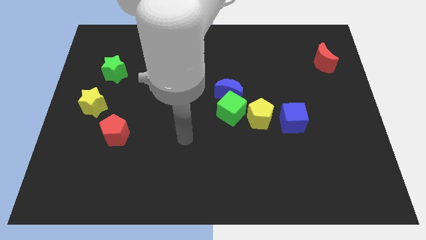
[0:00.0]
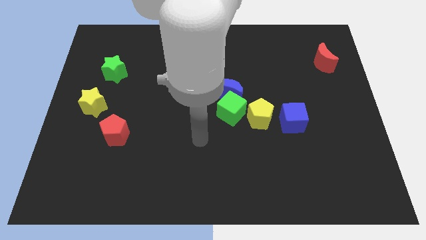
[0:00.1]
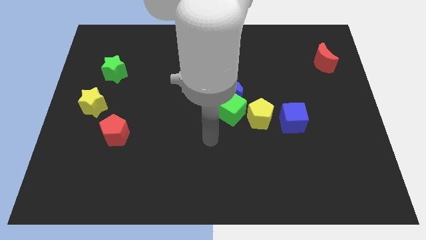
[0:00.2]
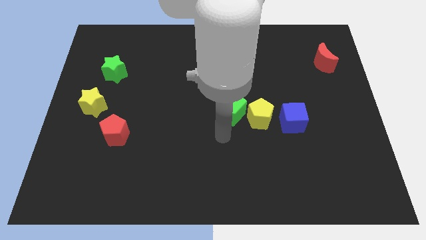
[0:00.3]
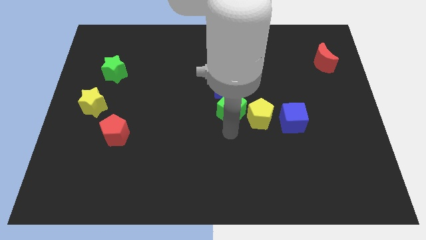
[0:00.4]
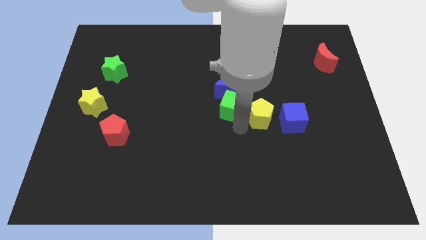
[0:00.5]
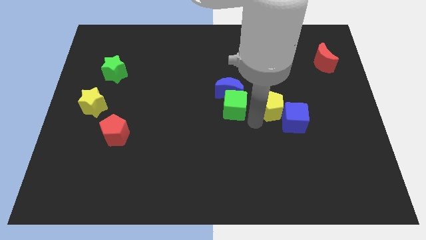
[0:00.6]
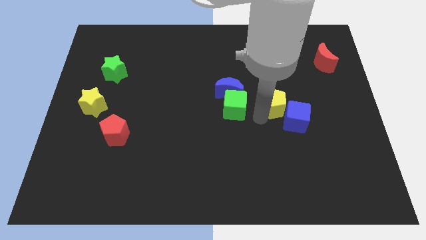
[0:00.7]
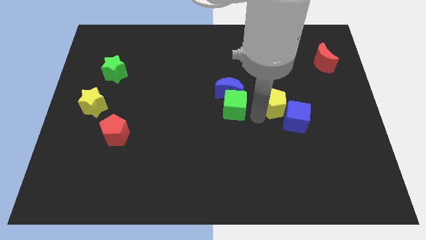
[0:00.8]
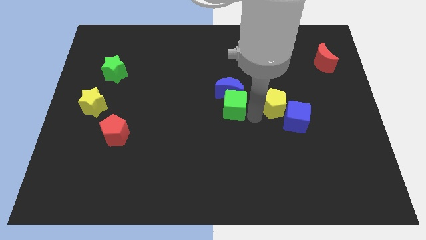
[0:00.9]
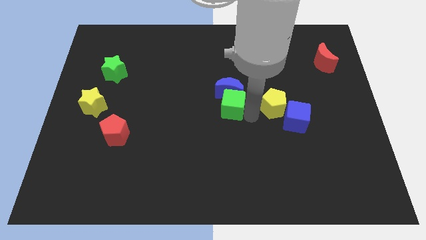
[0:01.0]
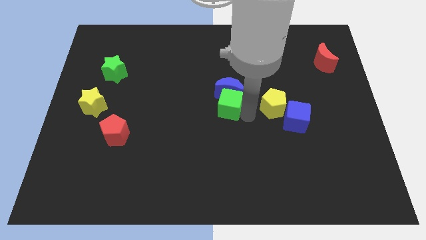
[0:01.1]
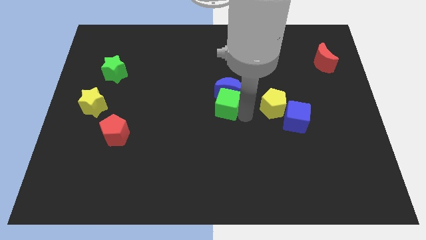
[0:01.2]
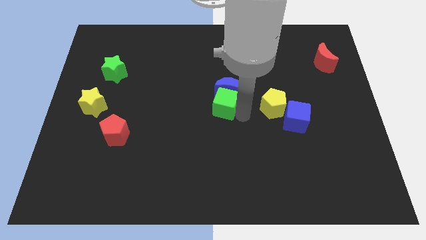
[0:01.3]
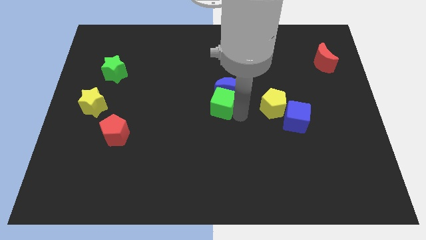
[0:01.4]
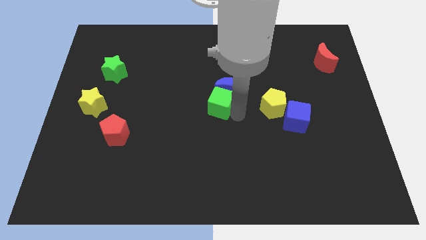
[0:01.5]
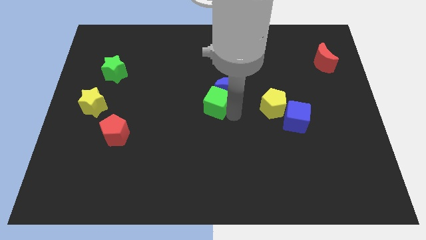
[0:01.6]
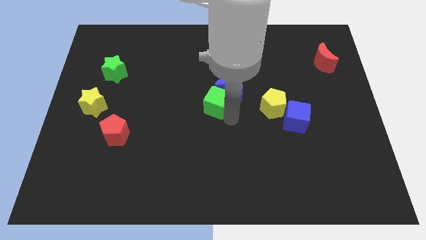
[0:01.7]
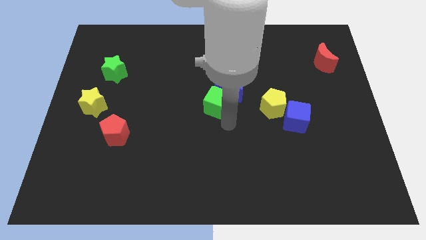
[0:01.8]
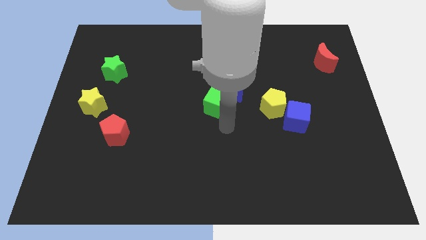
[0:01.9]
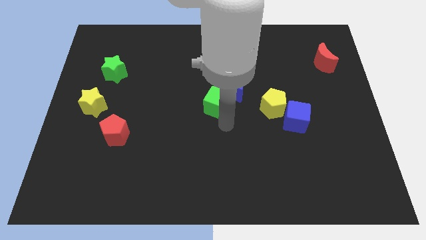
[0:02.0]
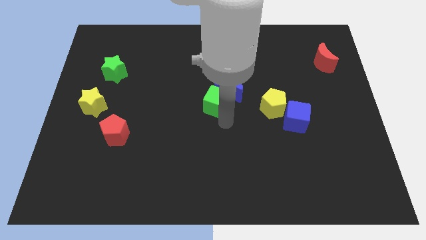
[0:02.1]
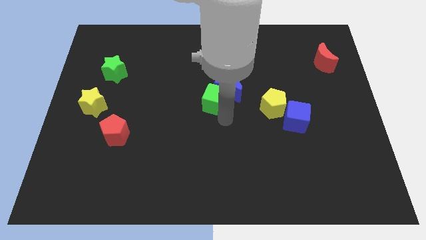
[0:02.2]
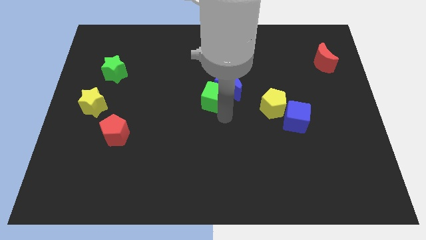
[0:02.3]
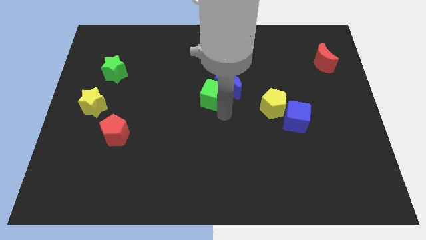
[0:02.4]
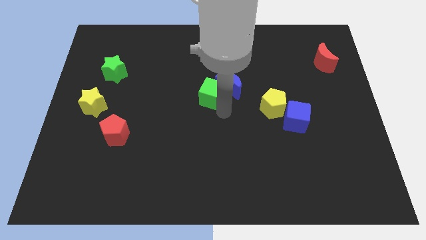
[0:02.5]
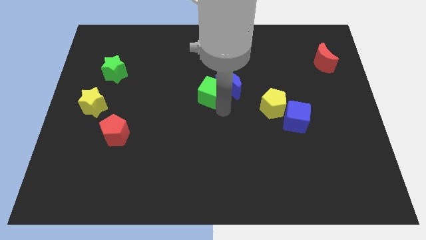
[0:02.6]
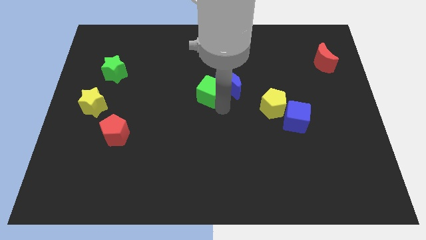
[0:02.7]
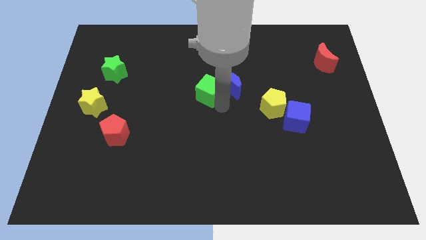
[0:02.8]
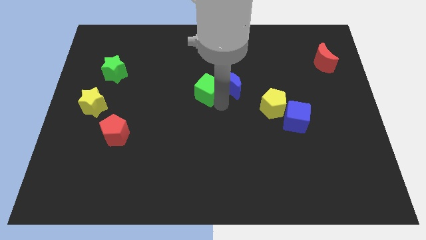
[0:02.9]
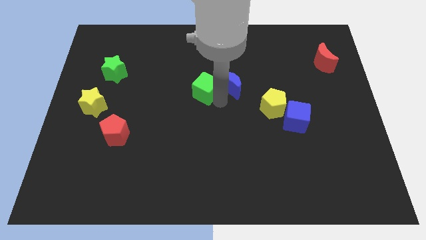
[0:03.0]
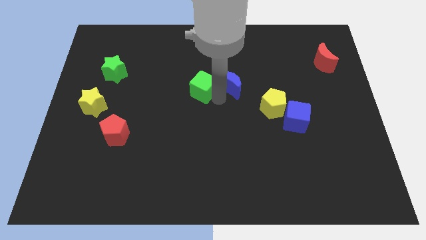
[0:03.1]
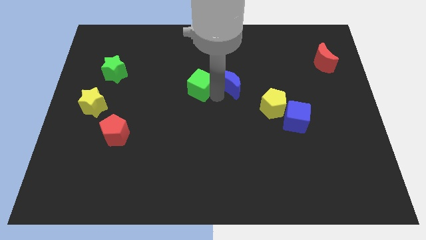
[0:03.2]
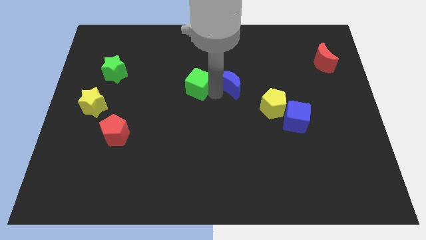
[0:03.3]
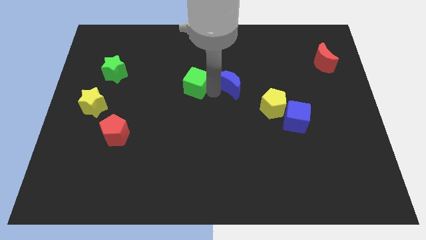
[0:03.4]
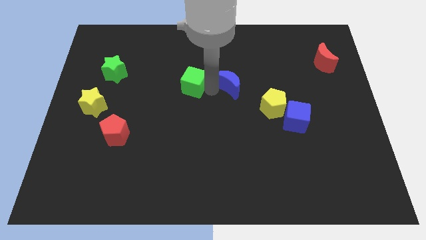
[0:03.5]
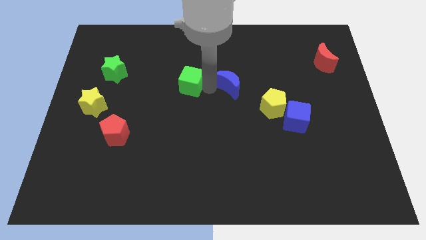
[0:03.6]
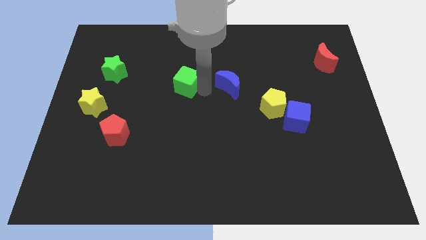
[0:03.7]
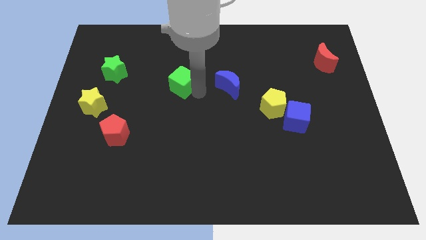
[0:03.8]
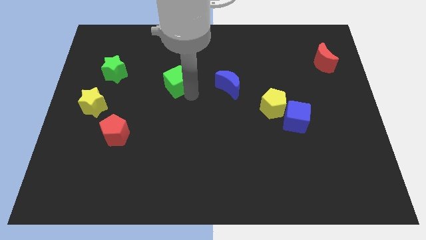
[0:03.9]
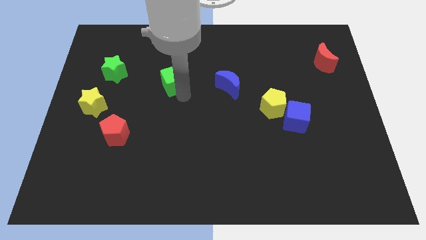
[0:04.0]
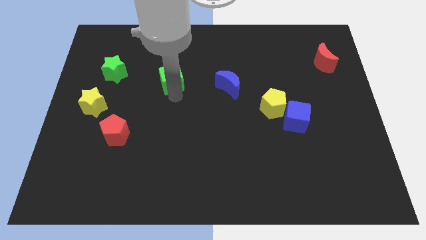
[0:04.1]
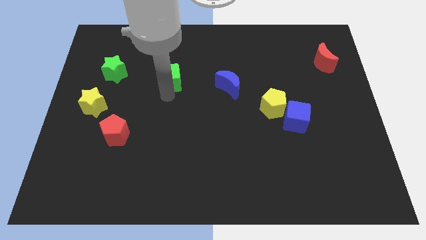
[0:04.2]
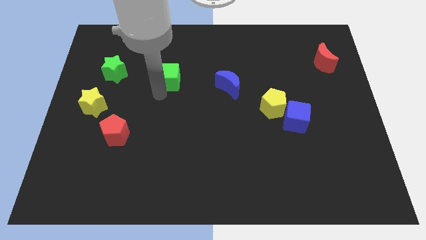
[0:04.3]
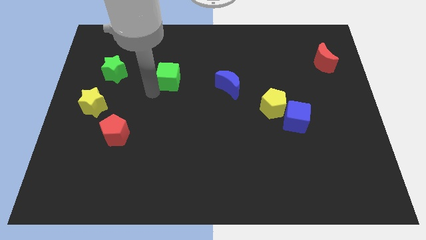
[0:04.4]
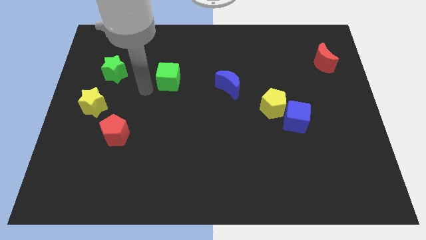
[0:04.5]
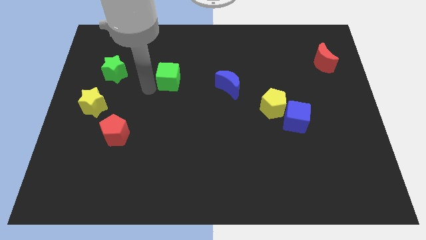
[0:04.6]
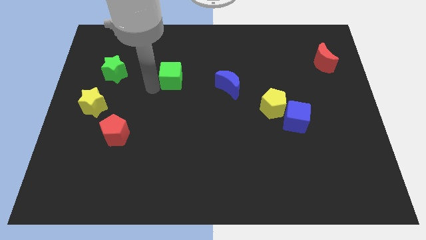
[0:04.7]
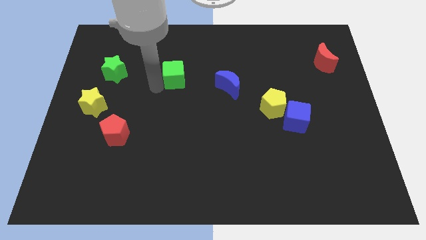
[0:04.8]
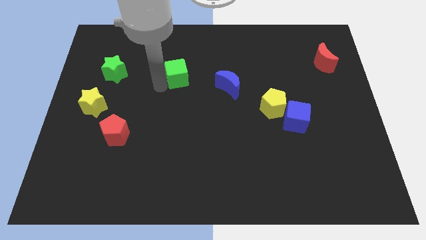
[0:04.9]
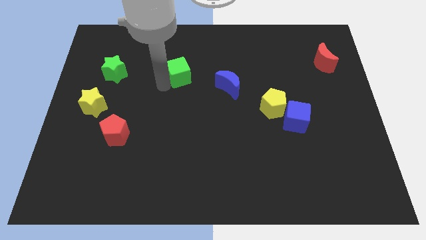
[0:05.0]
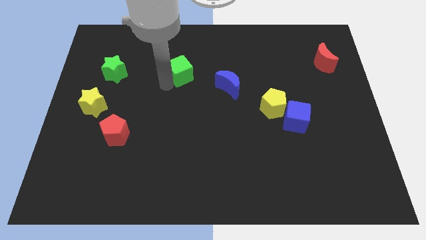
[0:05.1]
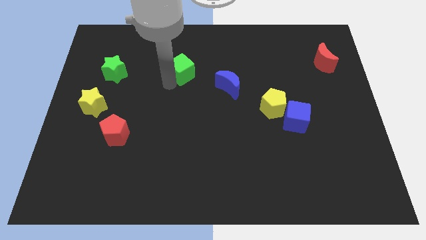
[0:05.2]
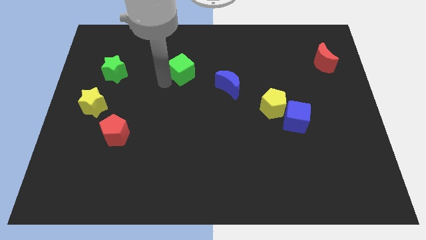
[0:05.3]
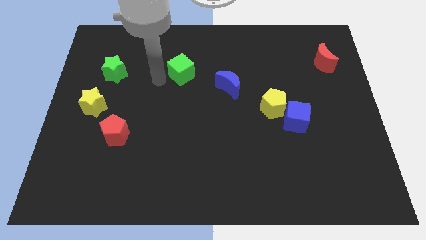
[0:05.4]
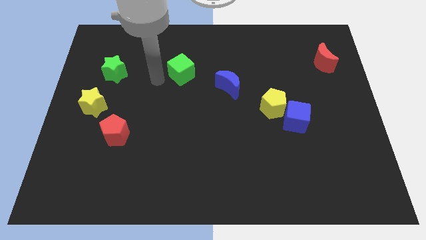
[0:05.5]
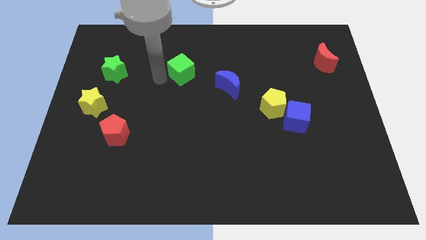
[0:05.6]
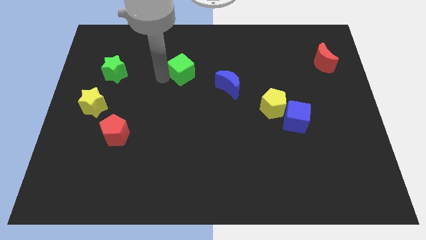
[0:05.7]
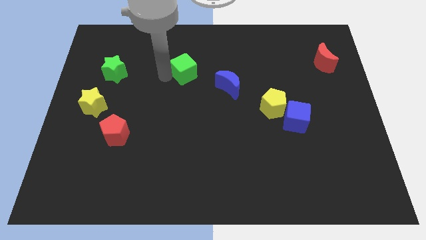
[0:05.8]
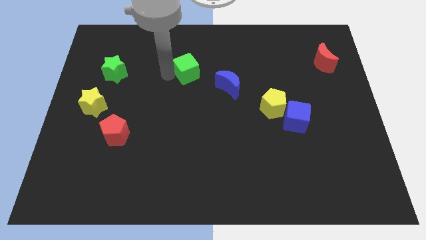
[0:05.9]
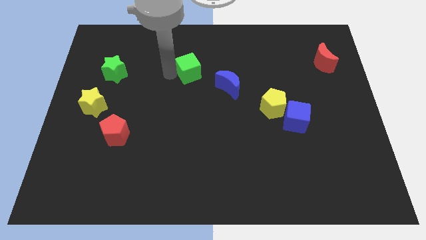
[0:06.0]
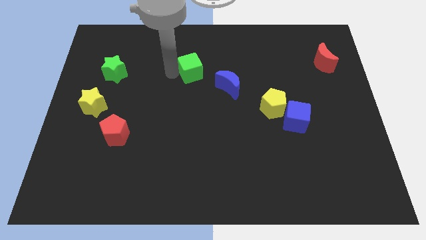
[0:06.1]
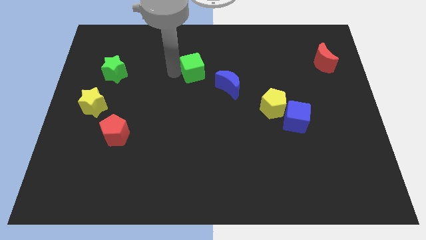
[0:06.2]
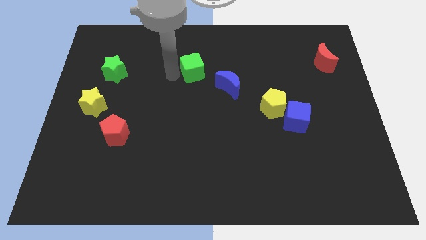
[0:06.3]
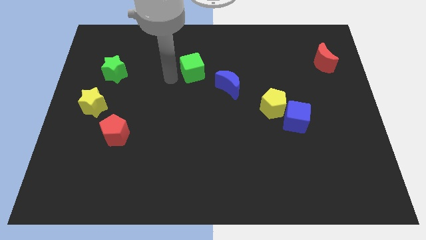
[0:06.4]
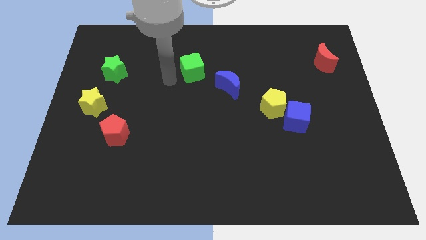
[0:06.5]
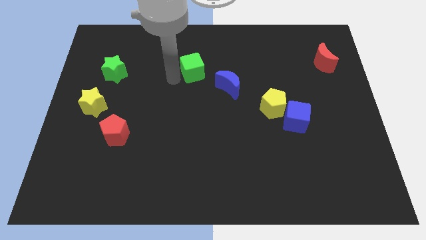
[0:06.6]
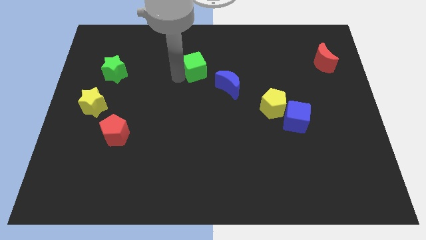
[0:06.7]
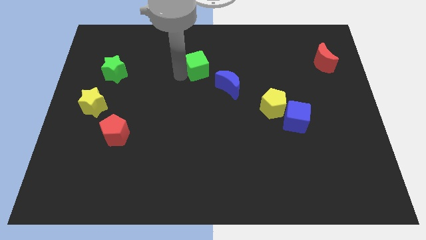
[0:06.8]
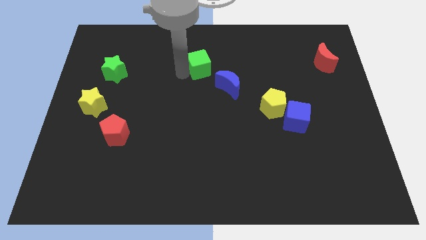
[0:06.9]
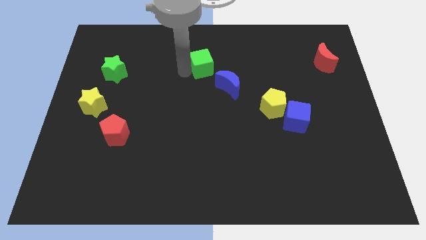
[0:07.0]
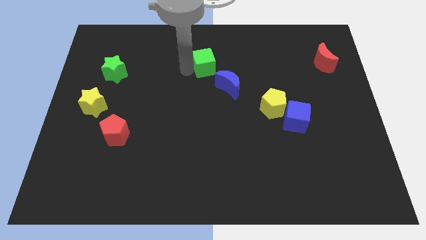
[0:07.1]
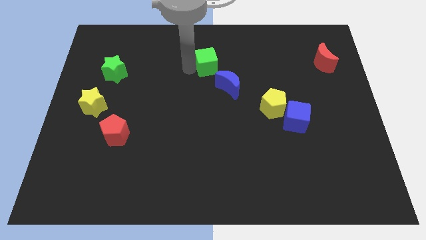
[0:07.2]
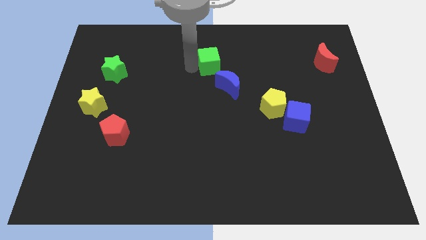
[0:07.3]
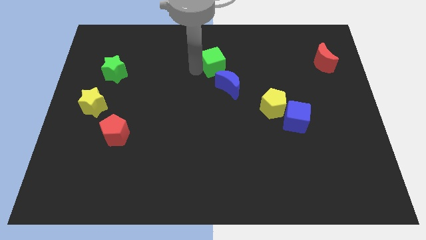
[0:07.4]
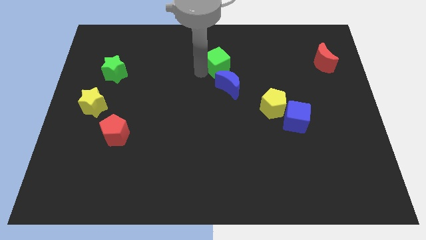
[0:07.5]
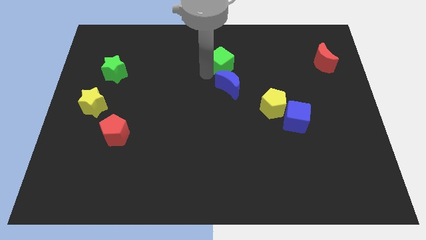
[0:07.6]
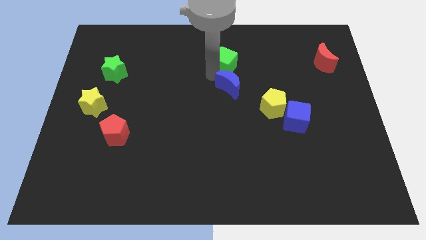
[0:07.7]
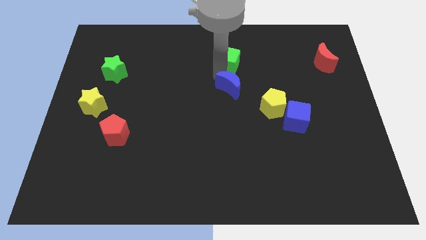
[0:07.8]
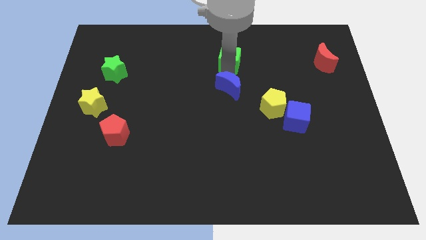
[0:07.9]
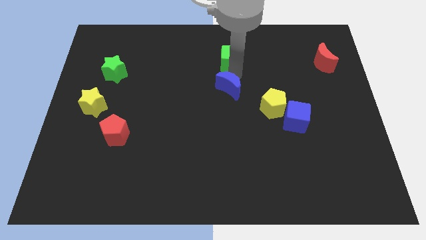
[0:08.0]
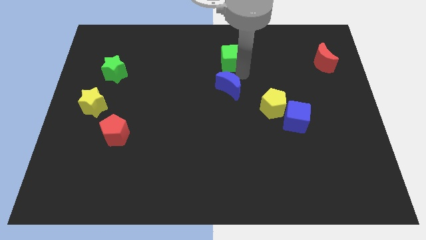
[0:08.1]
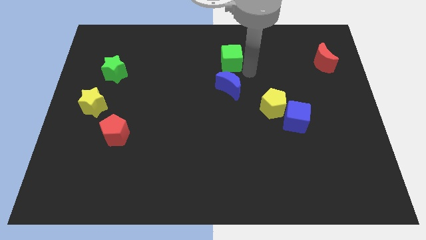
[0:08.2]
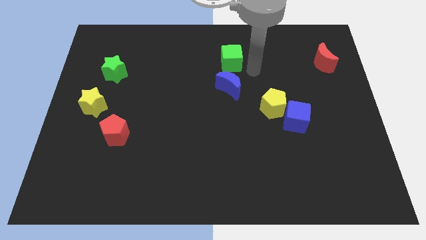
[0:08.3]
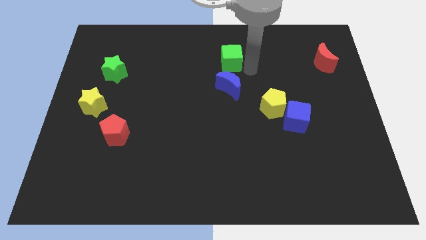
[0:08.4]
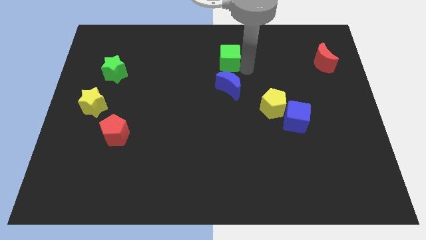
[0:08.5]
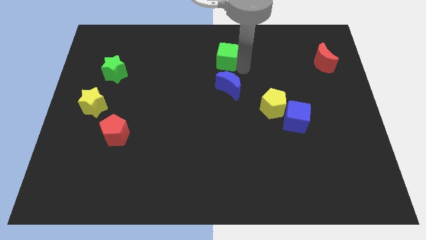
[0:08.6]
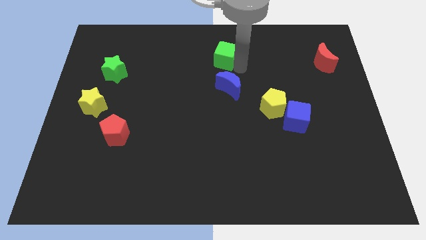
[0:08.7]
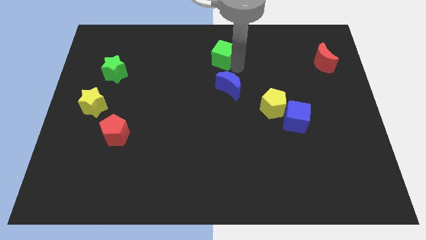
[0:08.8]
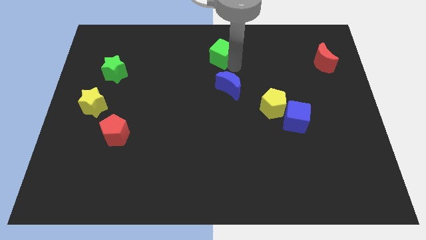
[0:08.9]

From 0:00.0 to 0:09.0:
move the green cube to the top side
